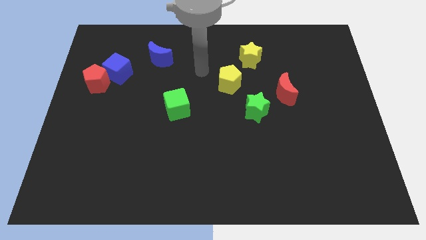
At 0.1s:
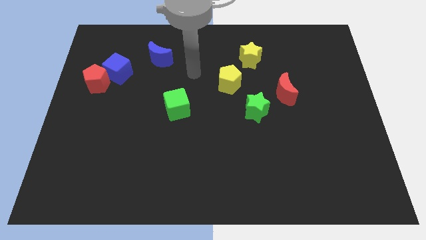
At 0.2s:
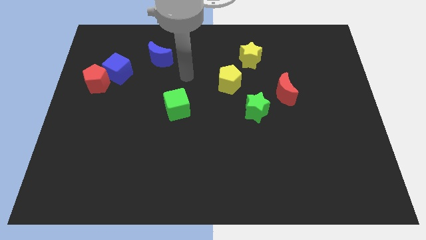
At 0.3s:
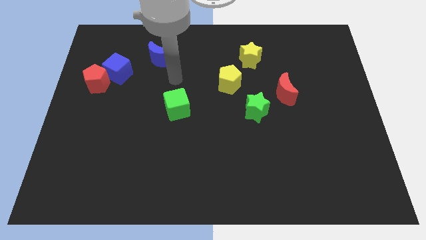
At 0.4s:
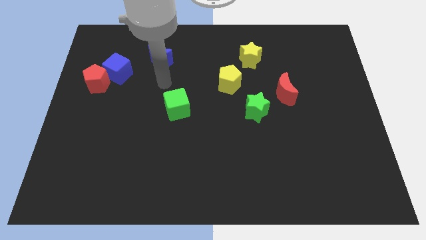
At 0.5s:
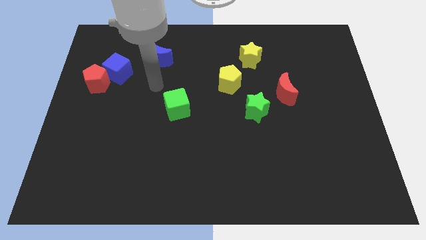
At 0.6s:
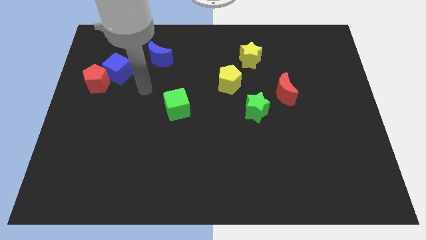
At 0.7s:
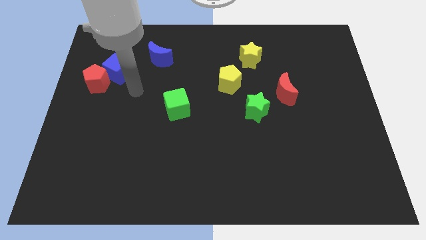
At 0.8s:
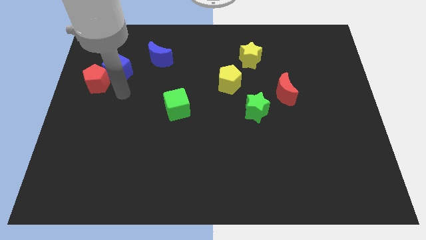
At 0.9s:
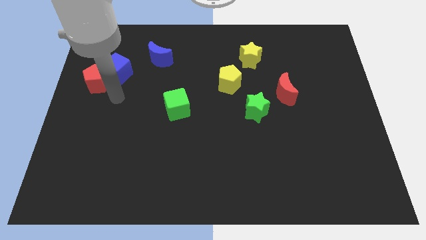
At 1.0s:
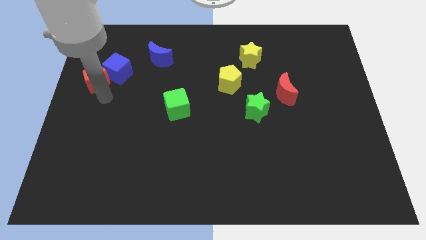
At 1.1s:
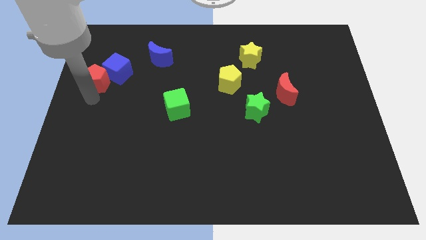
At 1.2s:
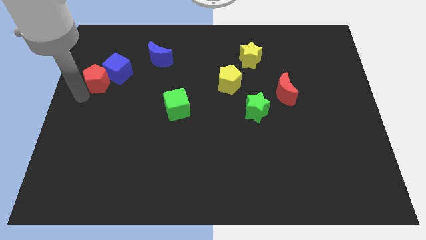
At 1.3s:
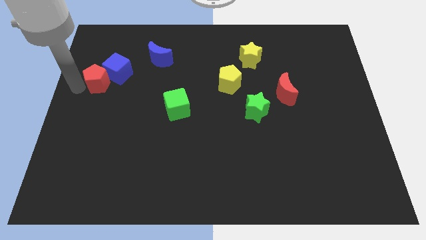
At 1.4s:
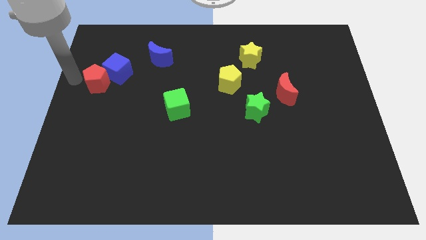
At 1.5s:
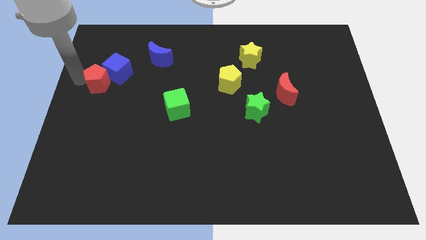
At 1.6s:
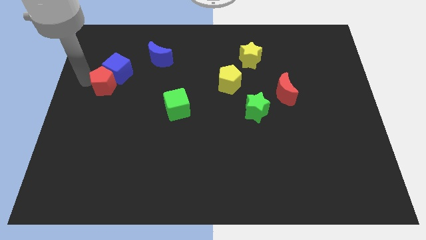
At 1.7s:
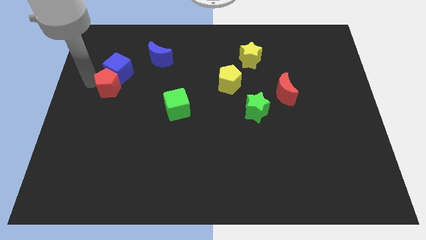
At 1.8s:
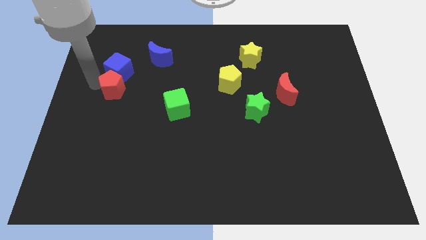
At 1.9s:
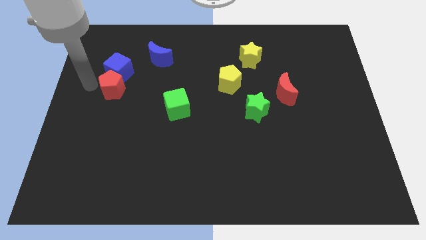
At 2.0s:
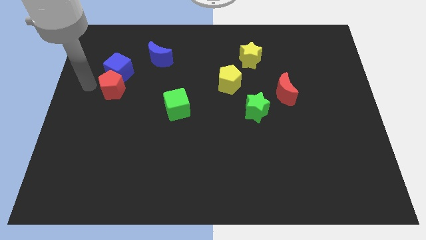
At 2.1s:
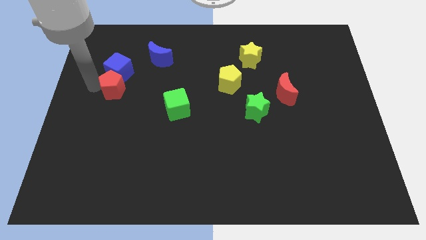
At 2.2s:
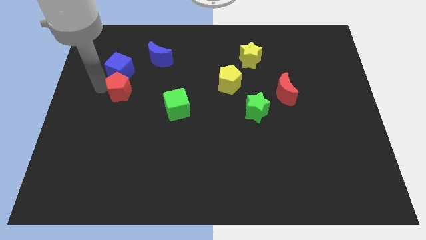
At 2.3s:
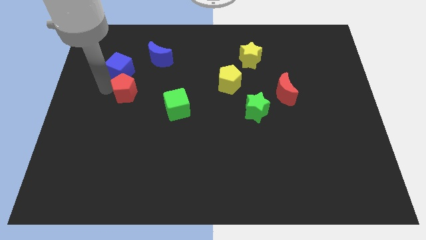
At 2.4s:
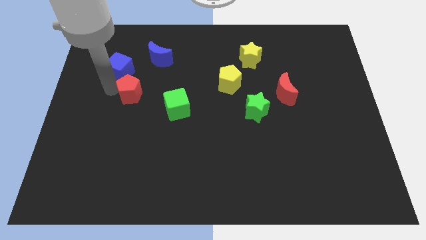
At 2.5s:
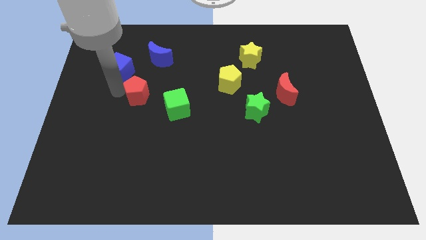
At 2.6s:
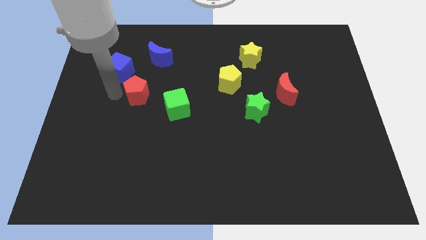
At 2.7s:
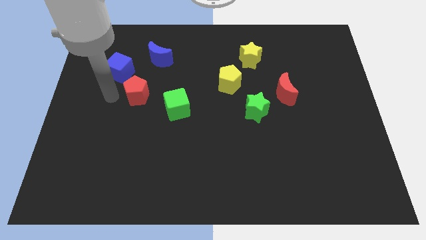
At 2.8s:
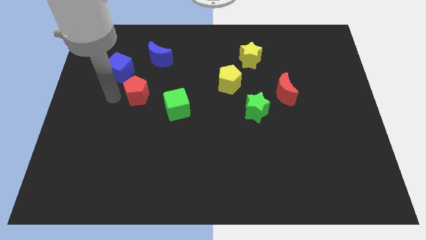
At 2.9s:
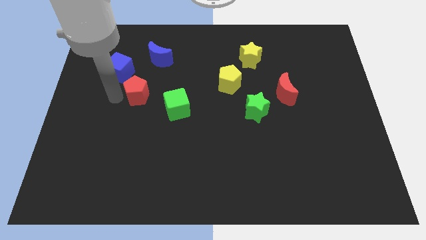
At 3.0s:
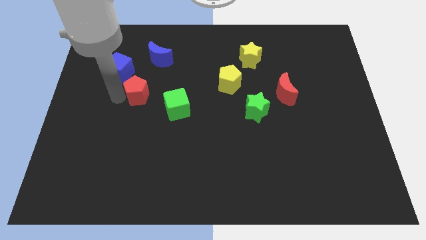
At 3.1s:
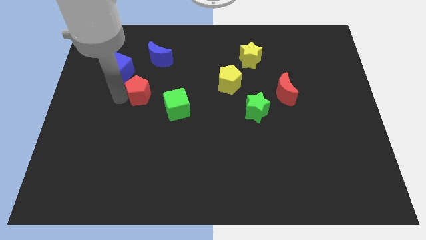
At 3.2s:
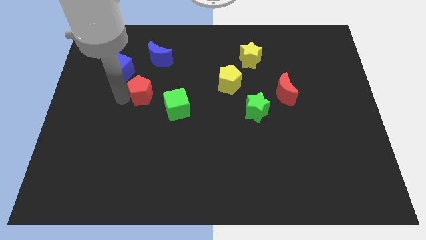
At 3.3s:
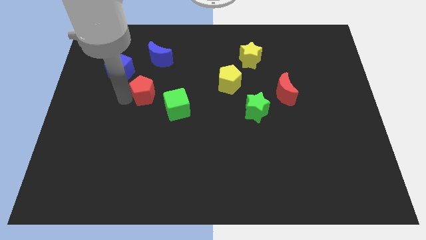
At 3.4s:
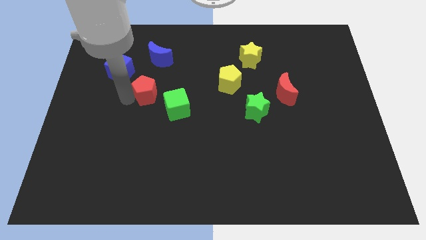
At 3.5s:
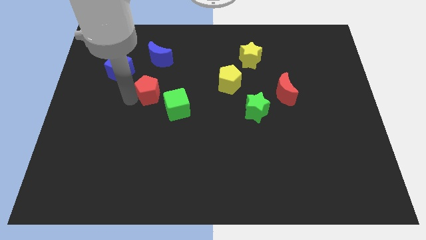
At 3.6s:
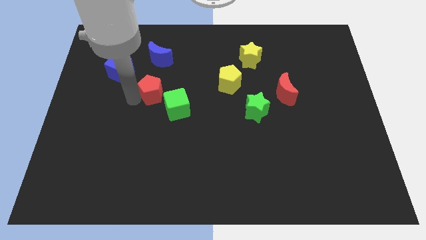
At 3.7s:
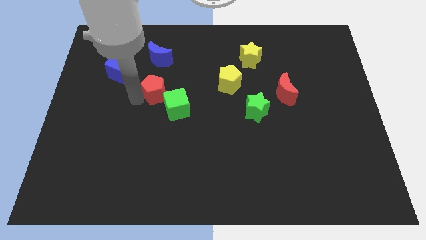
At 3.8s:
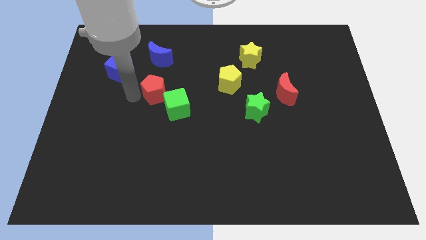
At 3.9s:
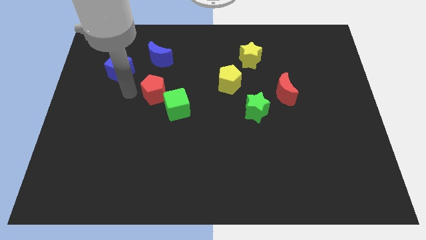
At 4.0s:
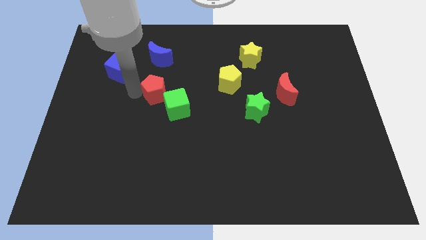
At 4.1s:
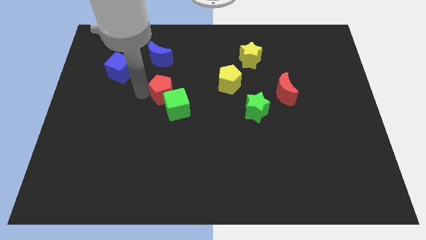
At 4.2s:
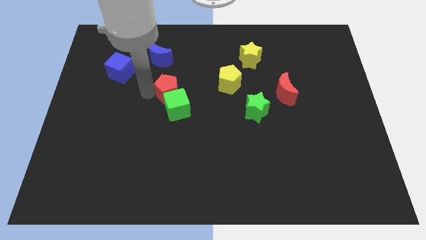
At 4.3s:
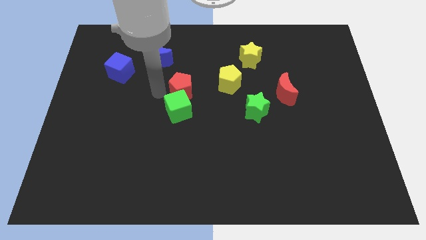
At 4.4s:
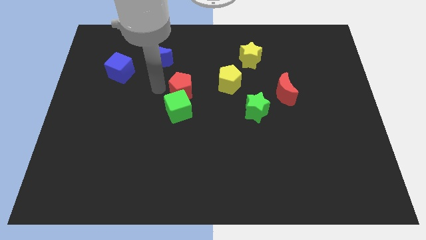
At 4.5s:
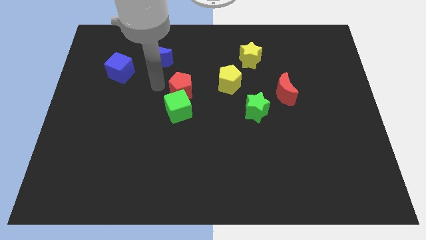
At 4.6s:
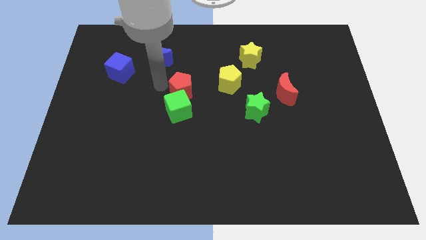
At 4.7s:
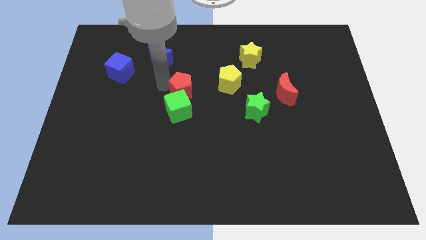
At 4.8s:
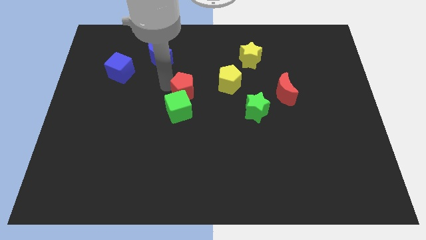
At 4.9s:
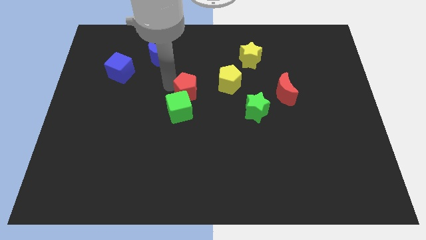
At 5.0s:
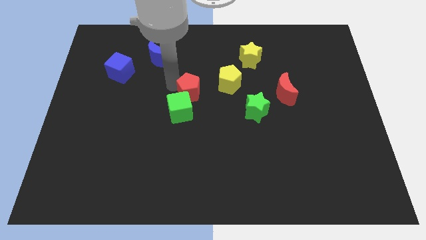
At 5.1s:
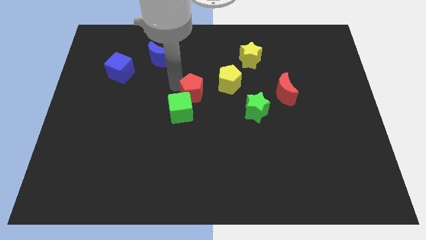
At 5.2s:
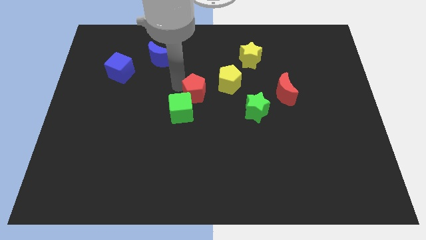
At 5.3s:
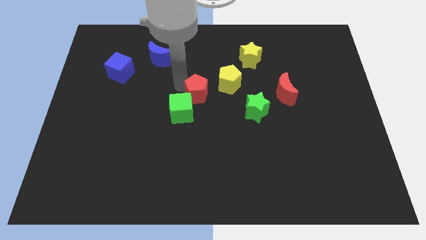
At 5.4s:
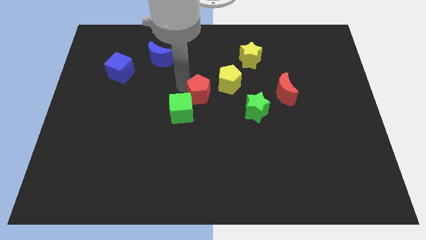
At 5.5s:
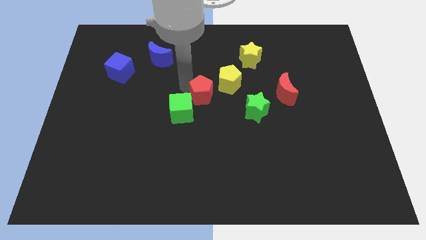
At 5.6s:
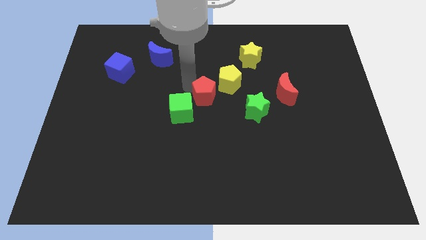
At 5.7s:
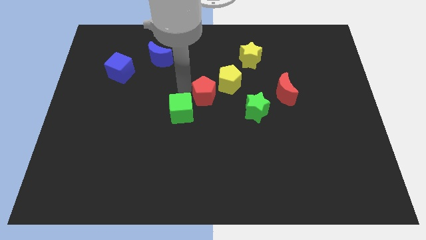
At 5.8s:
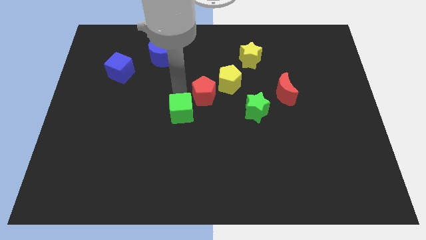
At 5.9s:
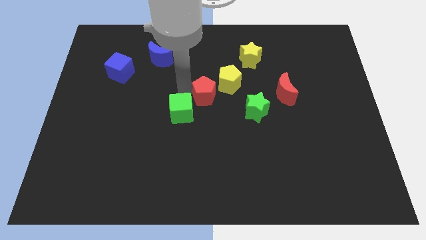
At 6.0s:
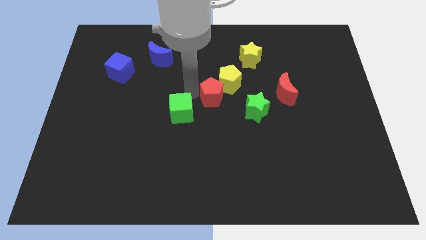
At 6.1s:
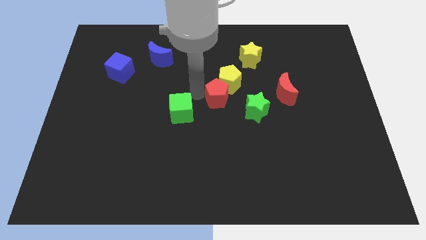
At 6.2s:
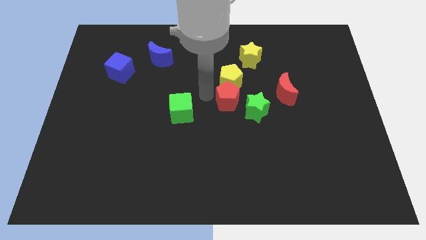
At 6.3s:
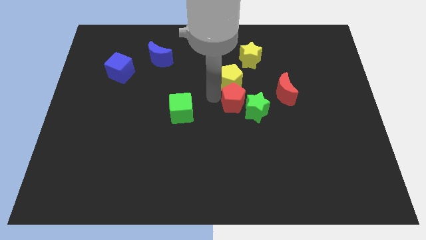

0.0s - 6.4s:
put the red pentagon towards the green star
